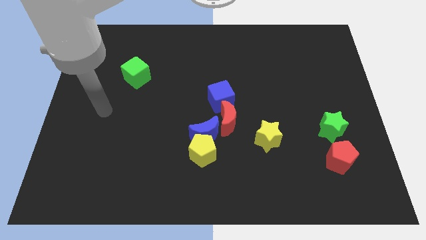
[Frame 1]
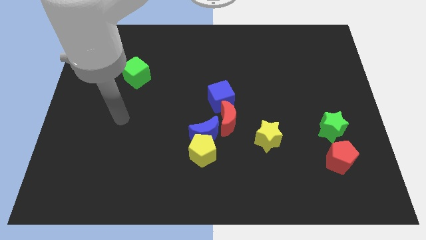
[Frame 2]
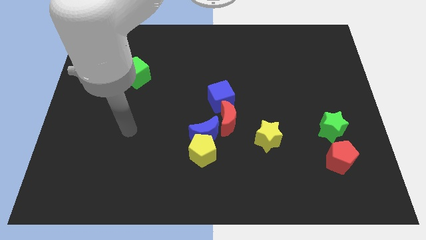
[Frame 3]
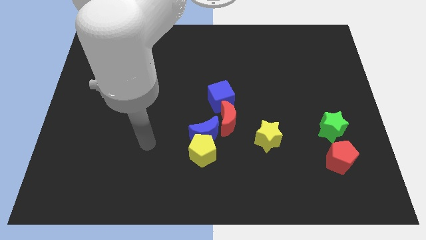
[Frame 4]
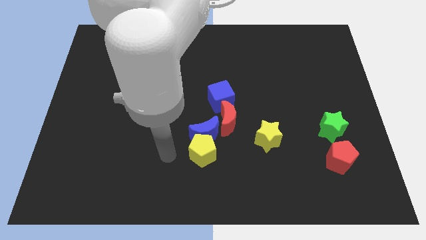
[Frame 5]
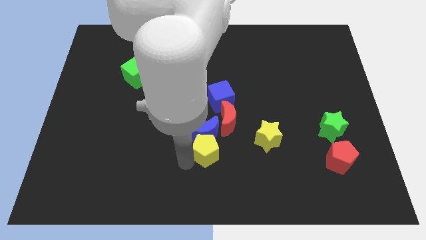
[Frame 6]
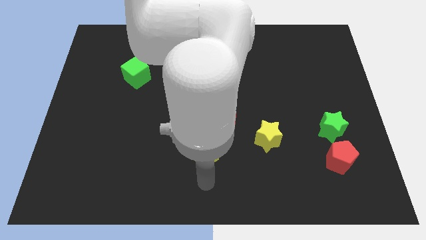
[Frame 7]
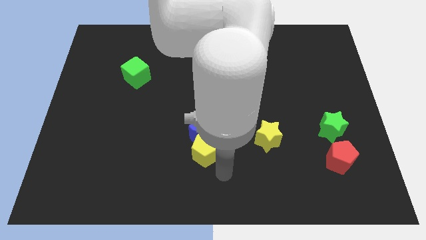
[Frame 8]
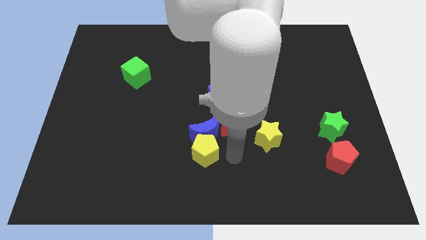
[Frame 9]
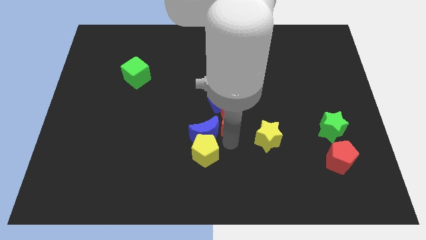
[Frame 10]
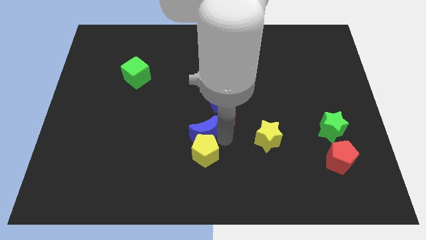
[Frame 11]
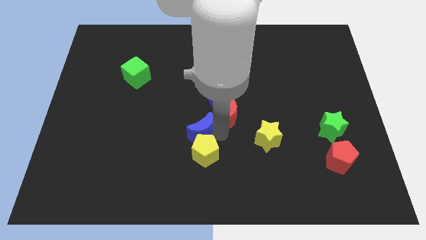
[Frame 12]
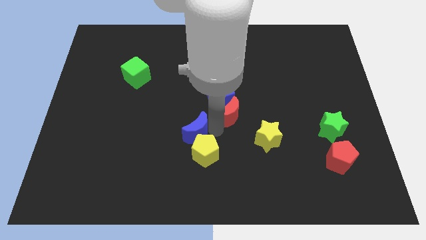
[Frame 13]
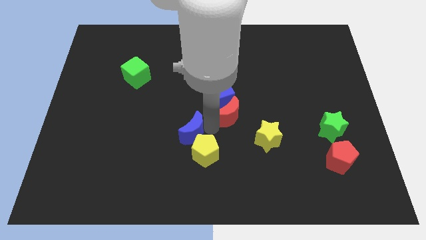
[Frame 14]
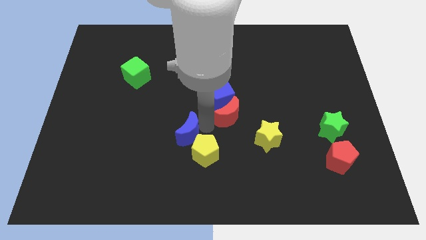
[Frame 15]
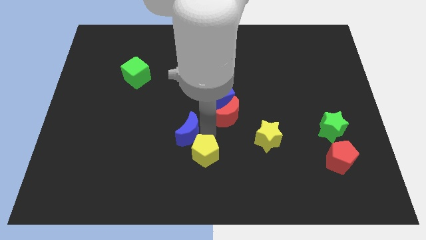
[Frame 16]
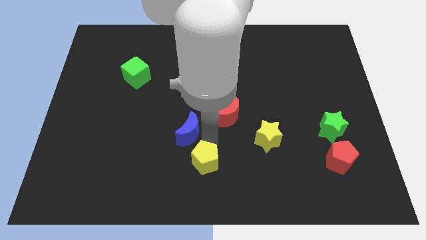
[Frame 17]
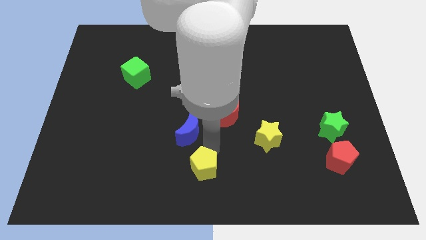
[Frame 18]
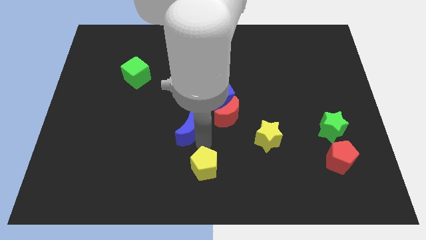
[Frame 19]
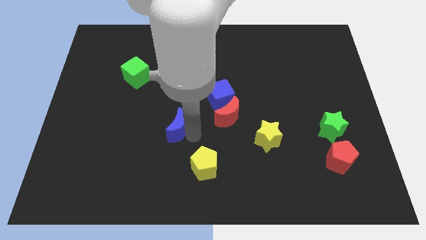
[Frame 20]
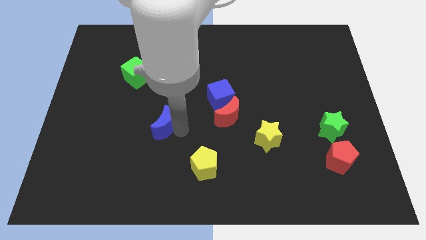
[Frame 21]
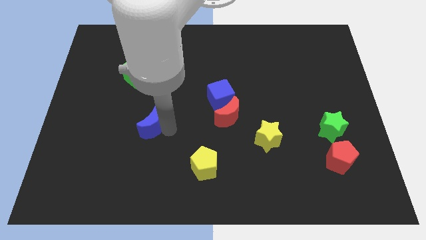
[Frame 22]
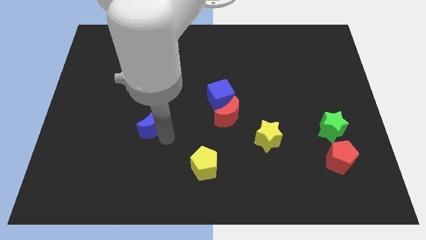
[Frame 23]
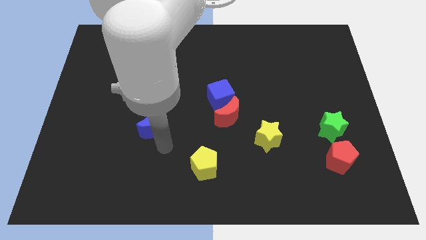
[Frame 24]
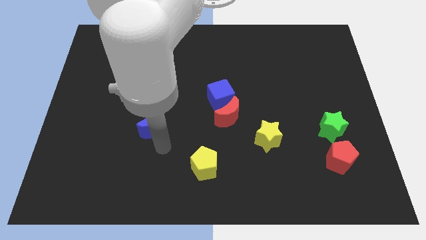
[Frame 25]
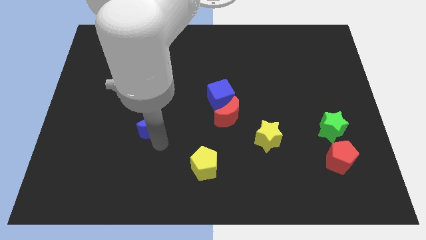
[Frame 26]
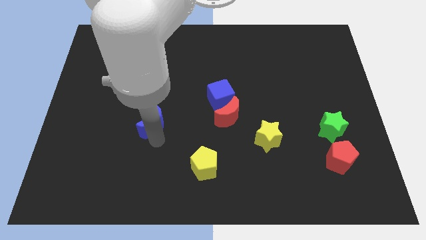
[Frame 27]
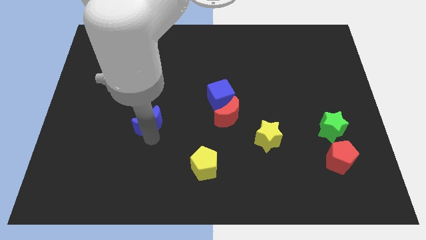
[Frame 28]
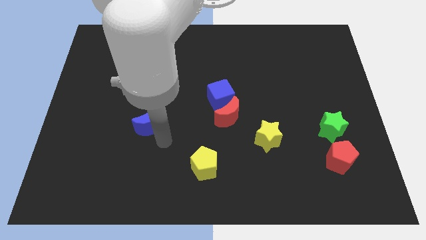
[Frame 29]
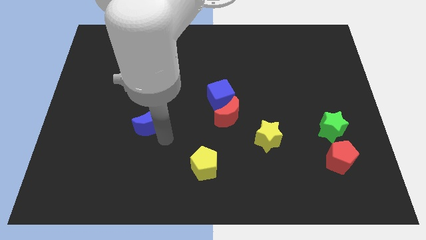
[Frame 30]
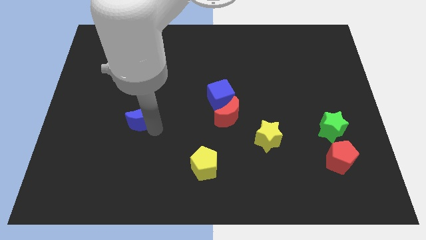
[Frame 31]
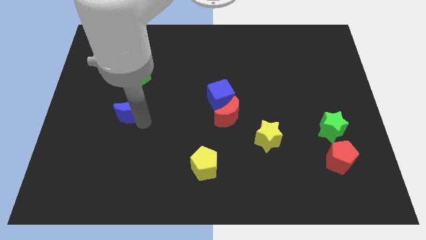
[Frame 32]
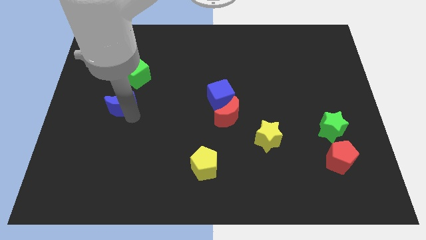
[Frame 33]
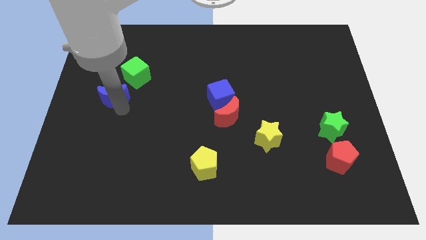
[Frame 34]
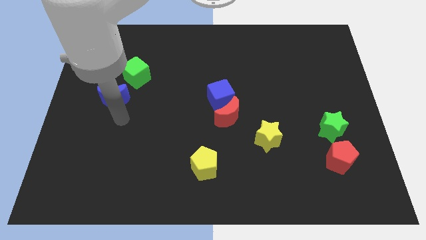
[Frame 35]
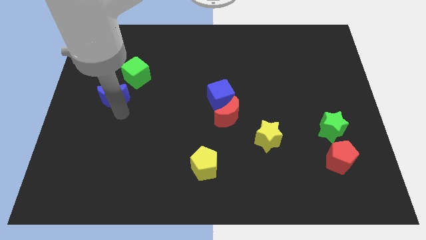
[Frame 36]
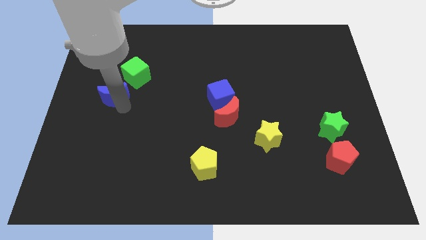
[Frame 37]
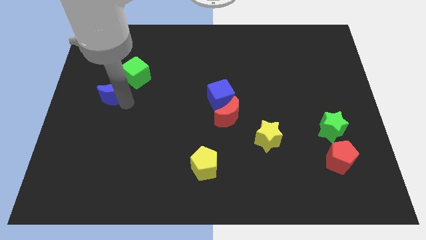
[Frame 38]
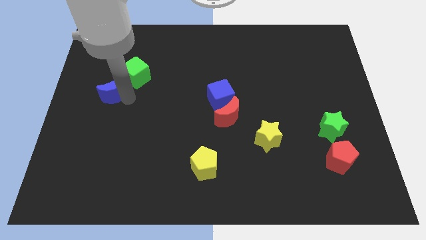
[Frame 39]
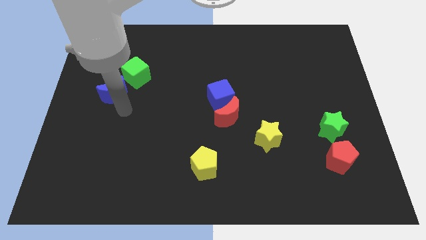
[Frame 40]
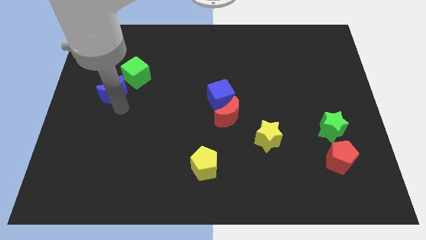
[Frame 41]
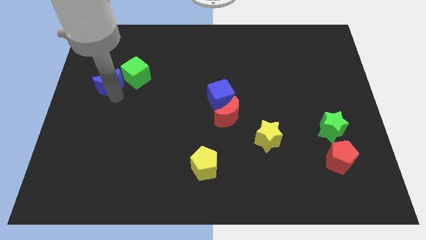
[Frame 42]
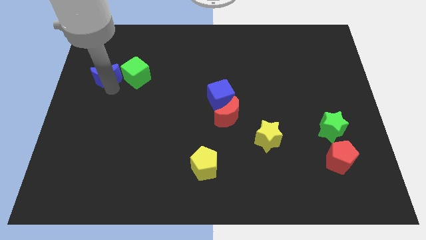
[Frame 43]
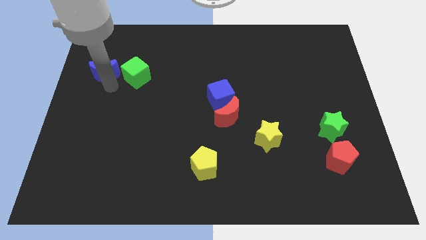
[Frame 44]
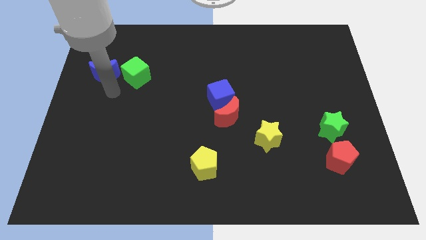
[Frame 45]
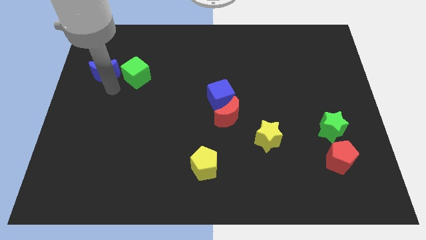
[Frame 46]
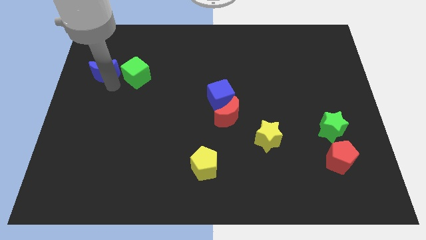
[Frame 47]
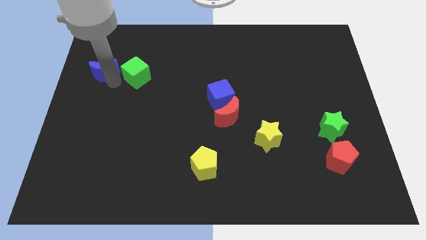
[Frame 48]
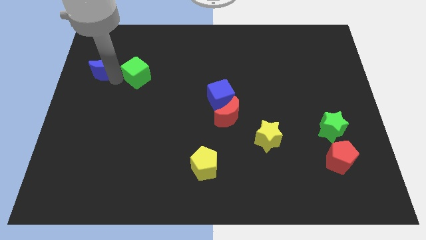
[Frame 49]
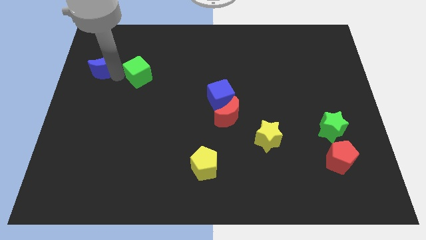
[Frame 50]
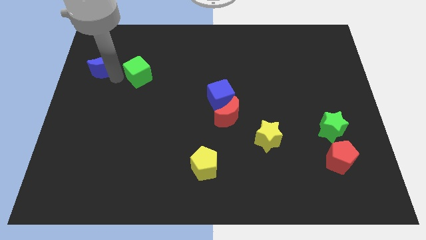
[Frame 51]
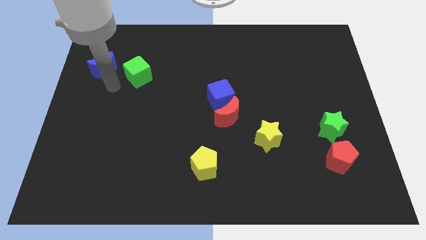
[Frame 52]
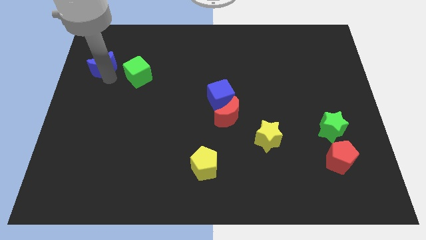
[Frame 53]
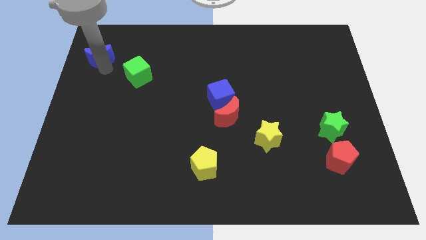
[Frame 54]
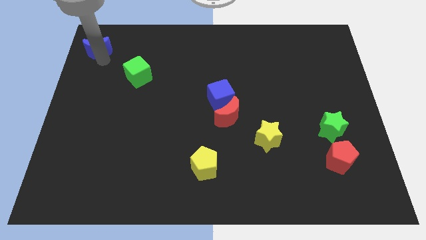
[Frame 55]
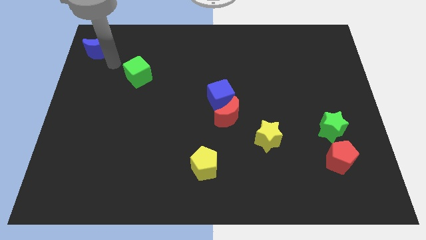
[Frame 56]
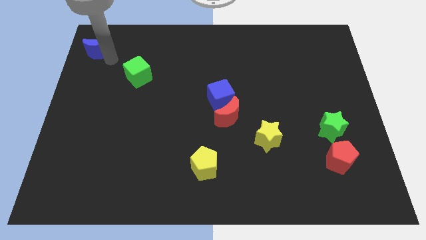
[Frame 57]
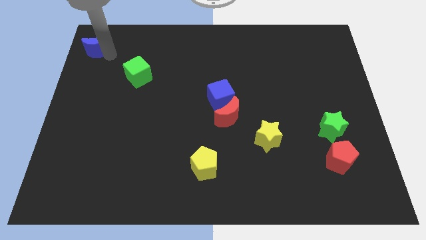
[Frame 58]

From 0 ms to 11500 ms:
move the blue moon to the upper left corner

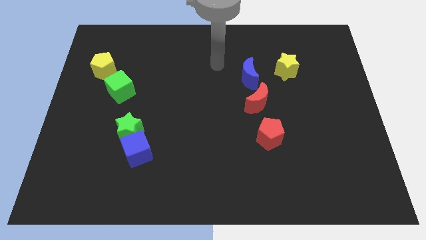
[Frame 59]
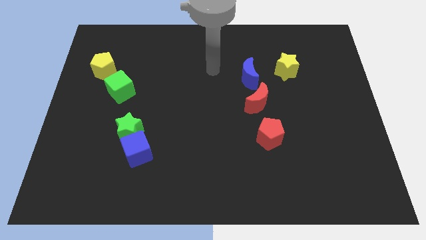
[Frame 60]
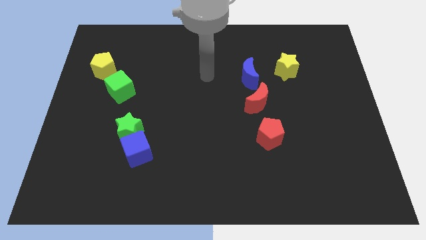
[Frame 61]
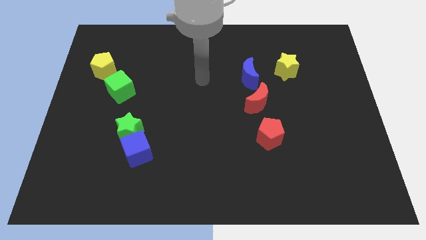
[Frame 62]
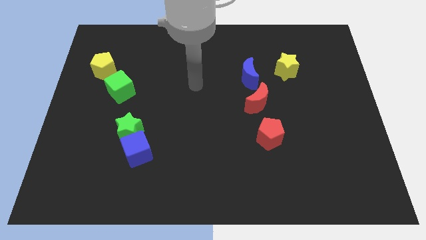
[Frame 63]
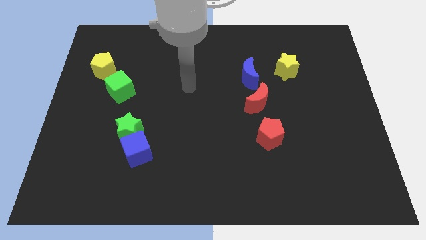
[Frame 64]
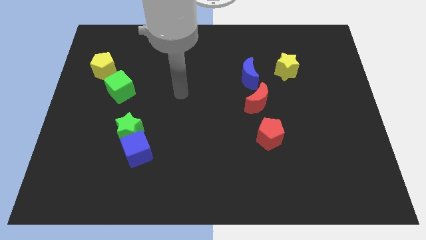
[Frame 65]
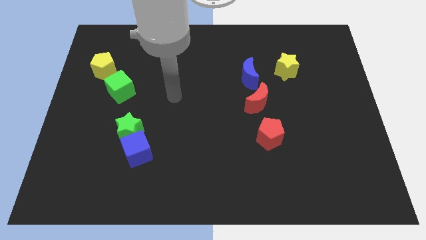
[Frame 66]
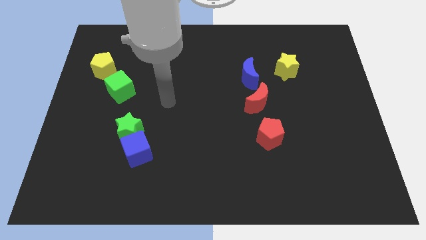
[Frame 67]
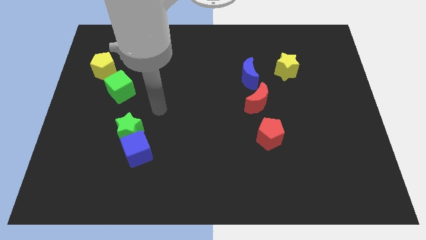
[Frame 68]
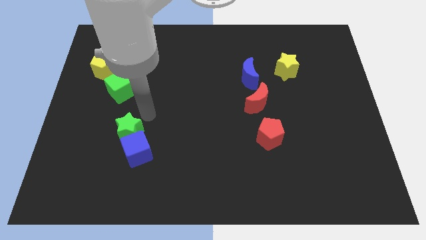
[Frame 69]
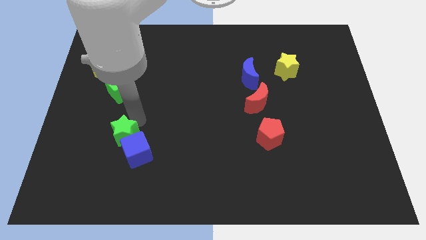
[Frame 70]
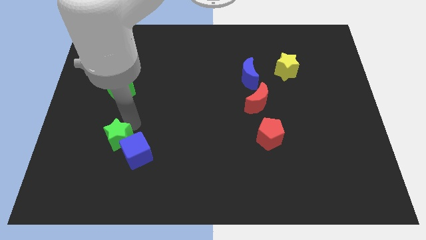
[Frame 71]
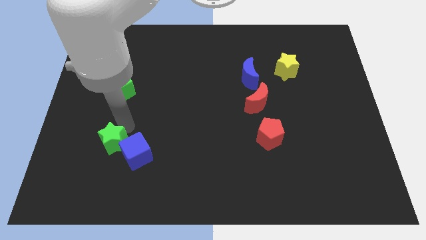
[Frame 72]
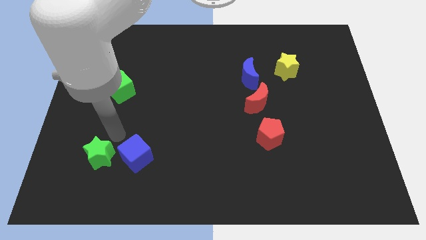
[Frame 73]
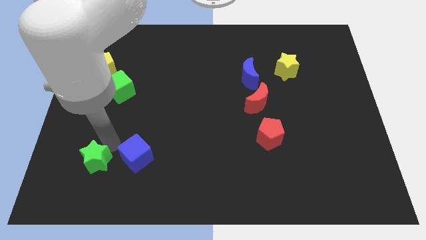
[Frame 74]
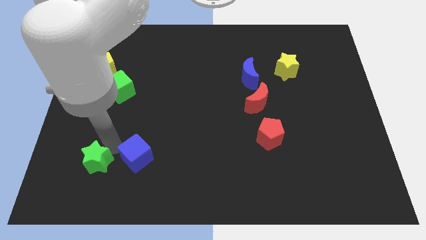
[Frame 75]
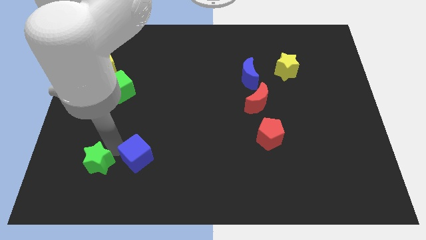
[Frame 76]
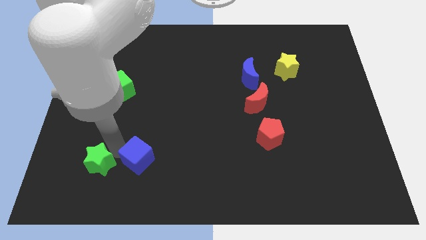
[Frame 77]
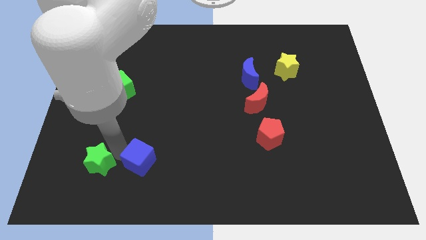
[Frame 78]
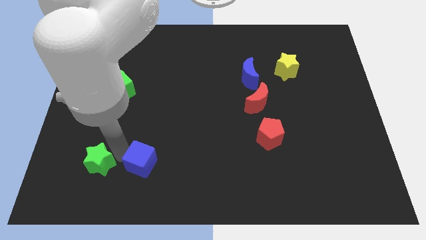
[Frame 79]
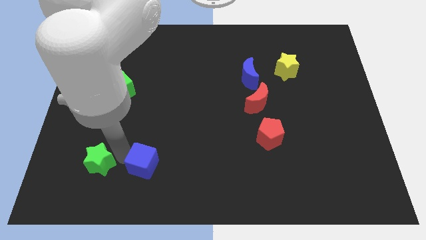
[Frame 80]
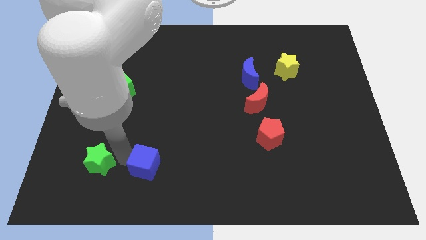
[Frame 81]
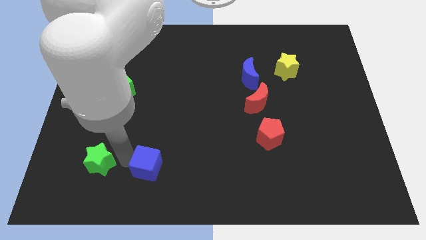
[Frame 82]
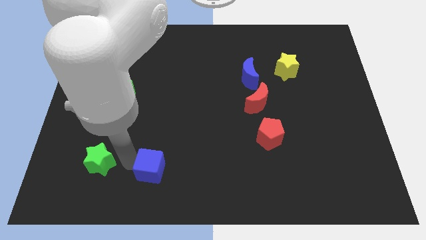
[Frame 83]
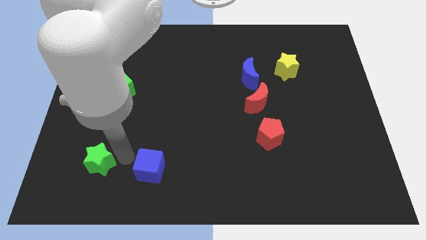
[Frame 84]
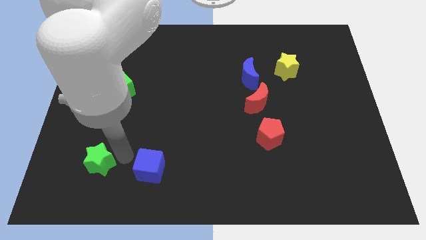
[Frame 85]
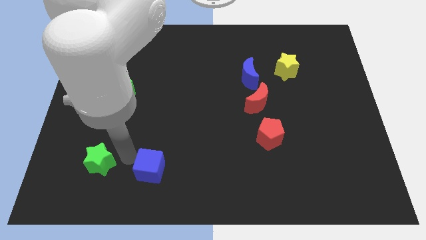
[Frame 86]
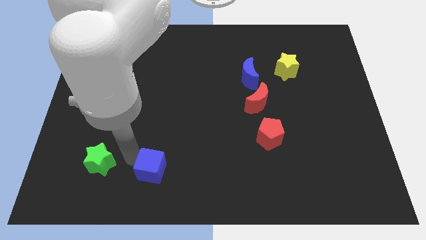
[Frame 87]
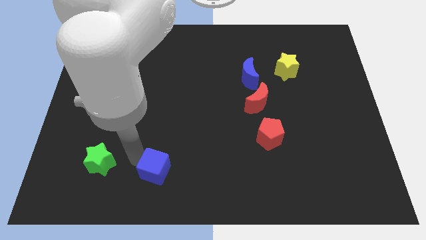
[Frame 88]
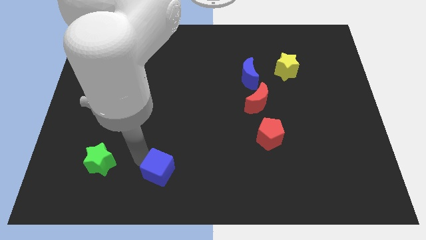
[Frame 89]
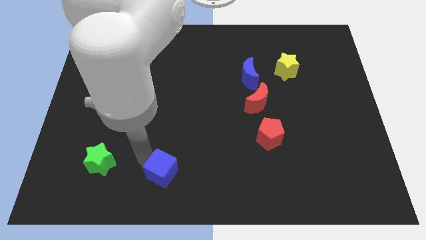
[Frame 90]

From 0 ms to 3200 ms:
put the blue cube to the bottom
